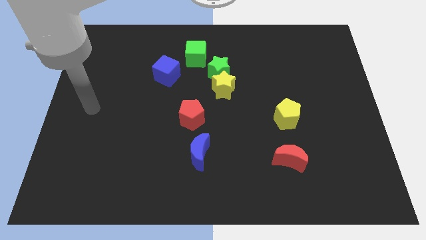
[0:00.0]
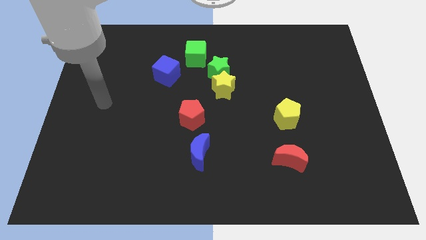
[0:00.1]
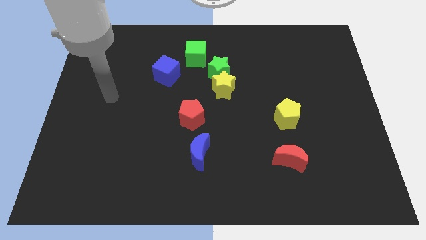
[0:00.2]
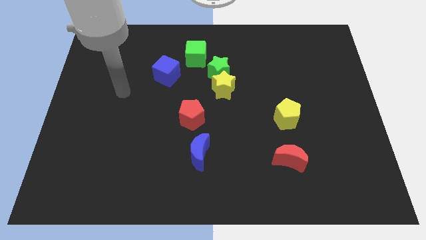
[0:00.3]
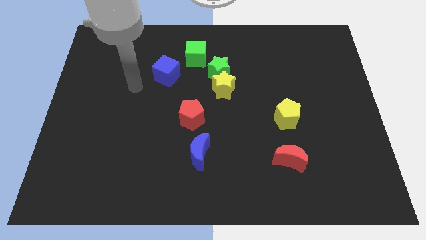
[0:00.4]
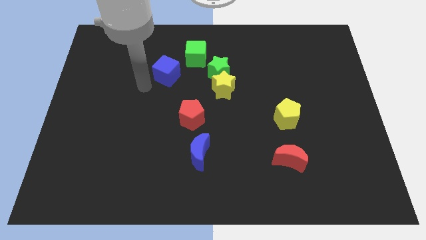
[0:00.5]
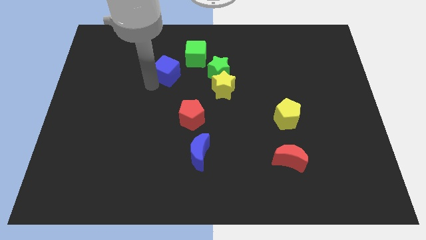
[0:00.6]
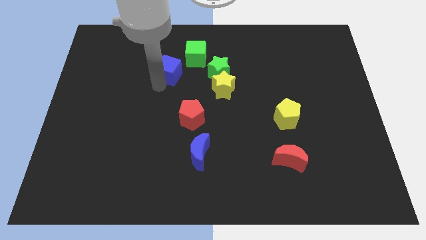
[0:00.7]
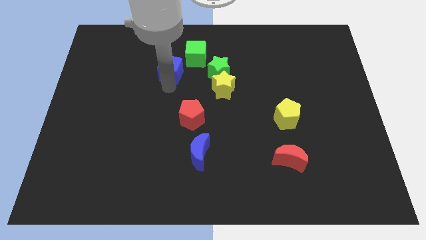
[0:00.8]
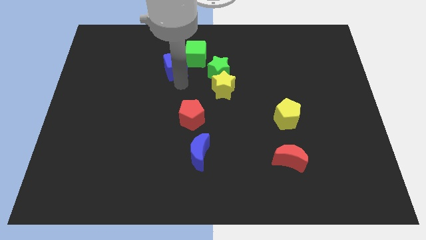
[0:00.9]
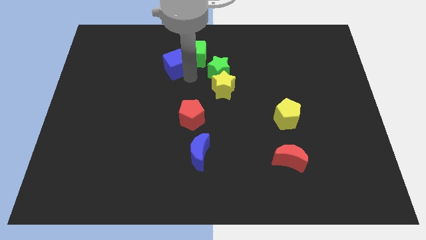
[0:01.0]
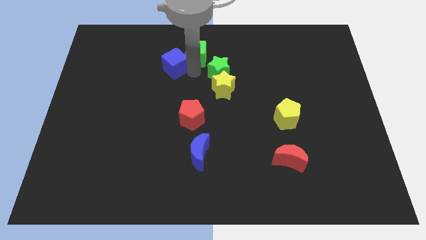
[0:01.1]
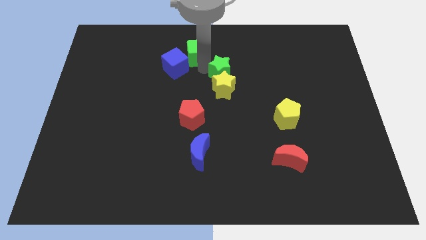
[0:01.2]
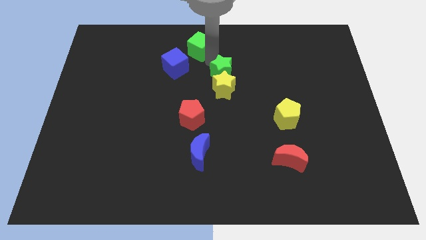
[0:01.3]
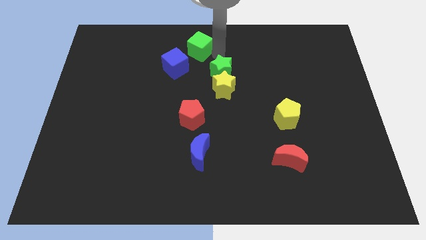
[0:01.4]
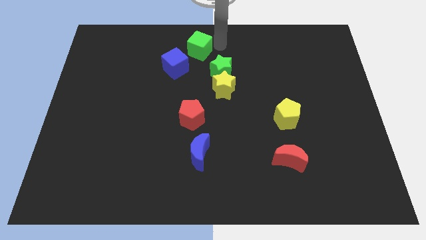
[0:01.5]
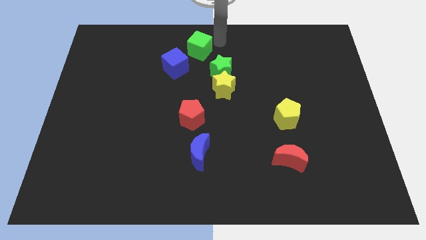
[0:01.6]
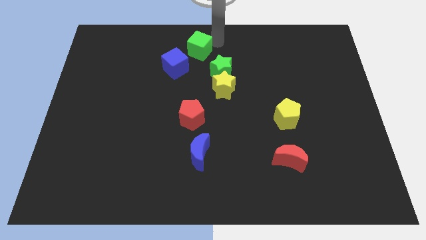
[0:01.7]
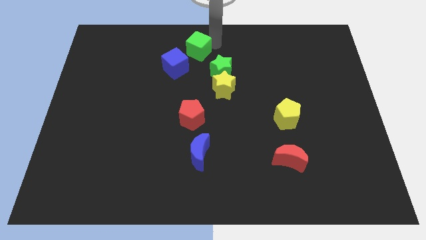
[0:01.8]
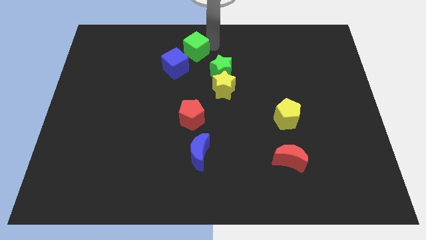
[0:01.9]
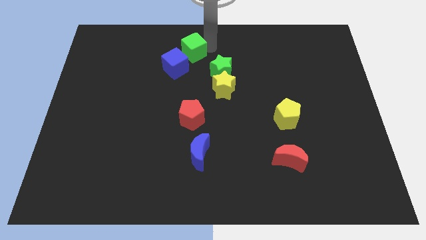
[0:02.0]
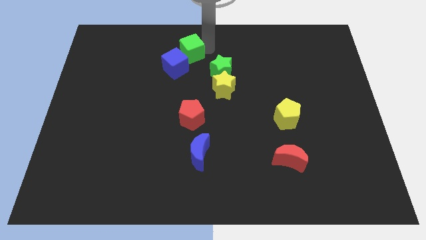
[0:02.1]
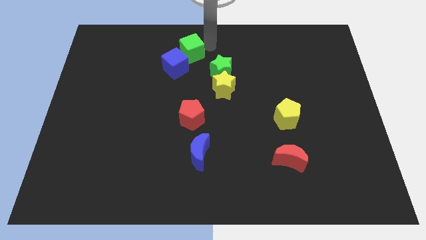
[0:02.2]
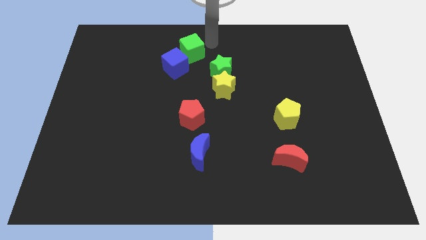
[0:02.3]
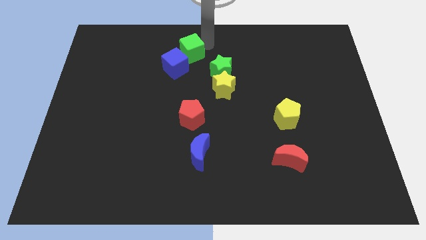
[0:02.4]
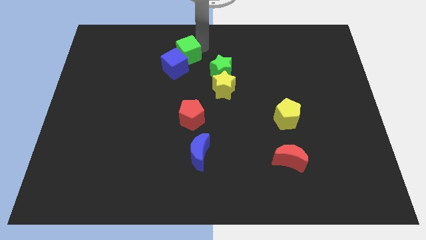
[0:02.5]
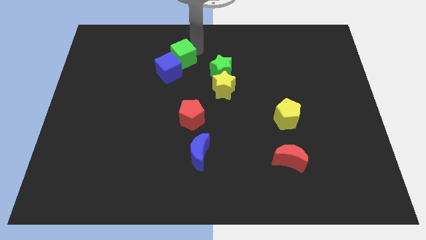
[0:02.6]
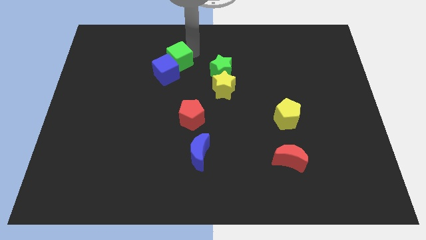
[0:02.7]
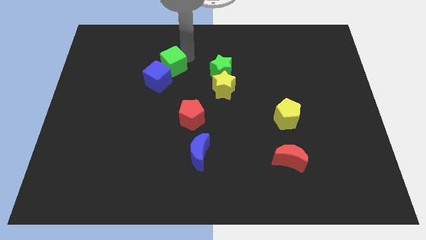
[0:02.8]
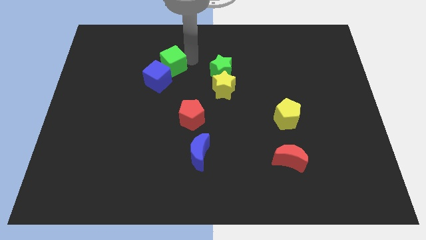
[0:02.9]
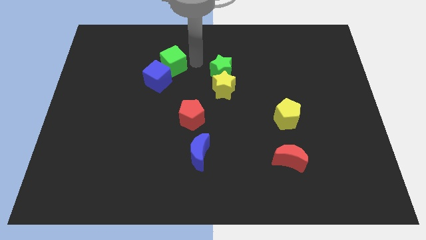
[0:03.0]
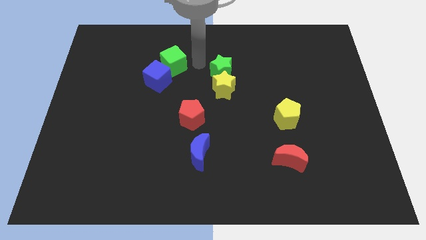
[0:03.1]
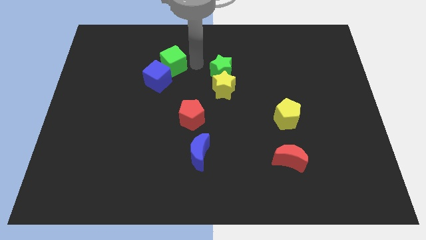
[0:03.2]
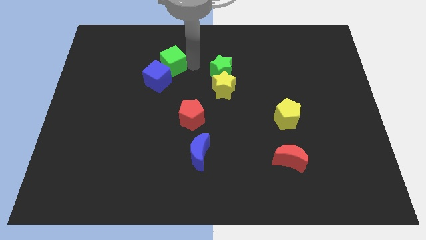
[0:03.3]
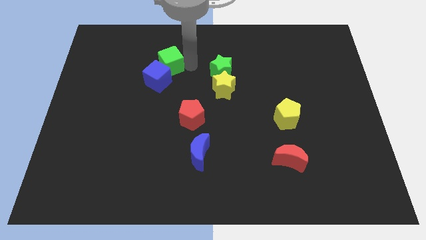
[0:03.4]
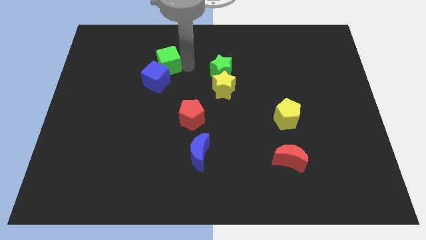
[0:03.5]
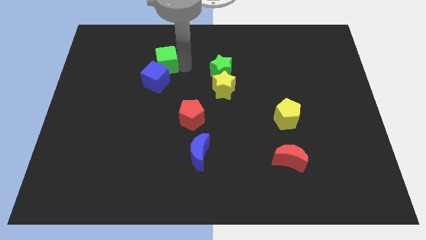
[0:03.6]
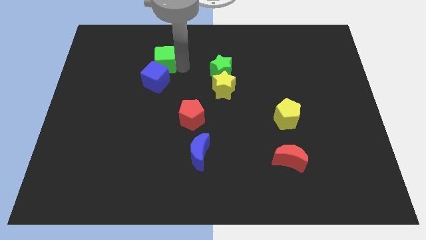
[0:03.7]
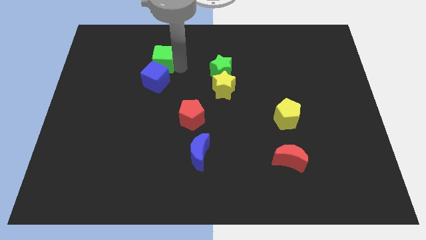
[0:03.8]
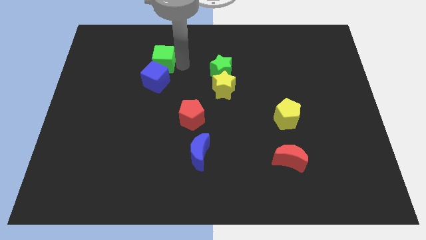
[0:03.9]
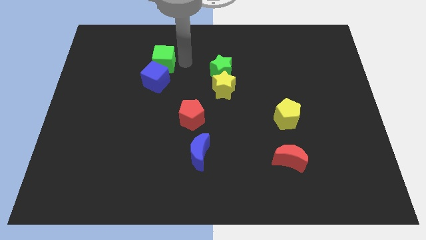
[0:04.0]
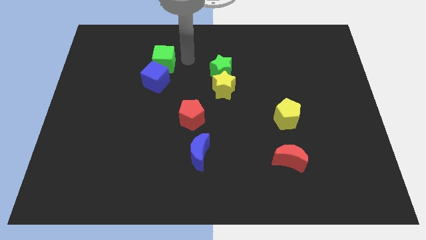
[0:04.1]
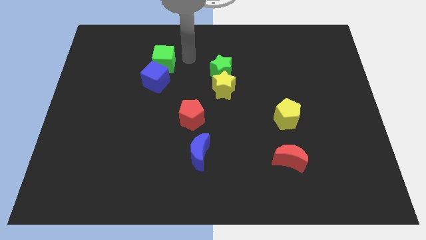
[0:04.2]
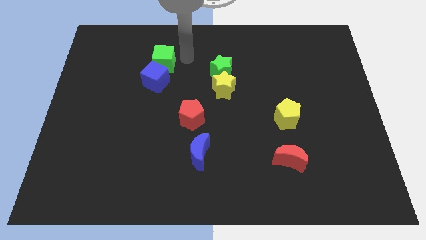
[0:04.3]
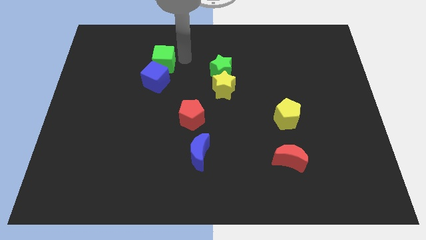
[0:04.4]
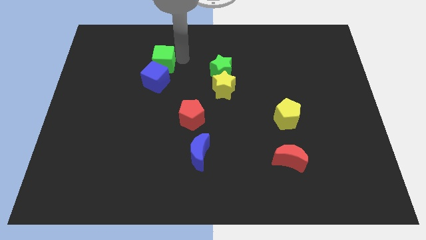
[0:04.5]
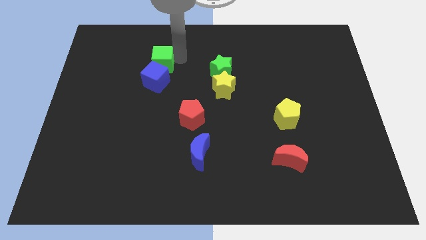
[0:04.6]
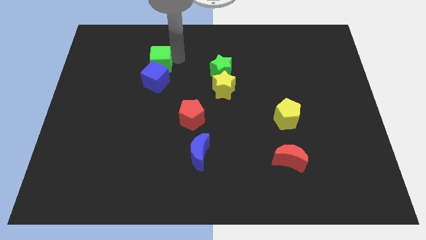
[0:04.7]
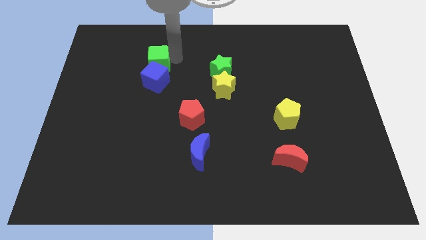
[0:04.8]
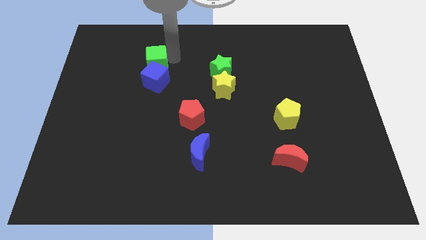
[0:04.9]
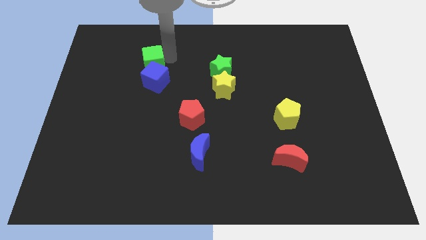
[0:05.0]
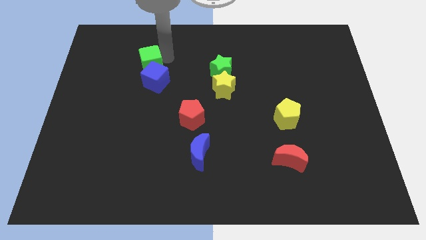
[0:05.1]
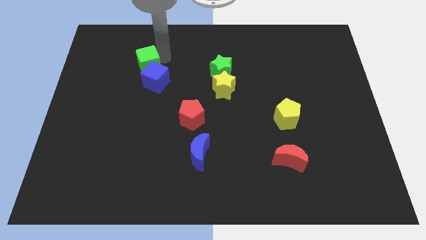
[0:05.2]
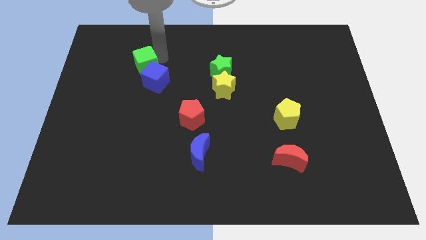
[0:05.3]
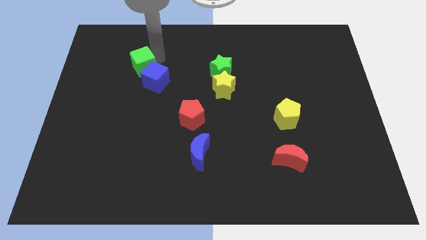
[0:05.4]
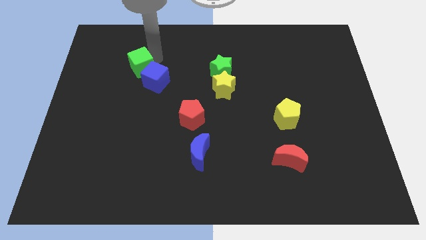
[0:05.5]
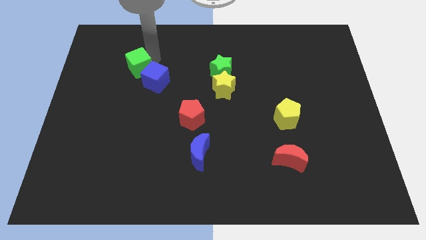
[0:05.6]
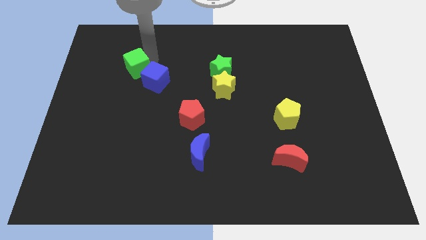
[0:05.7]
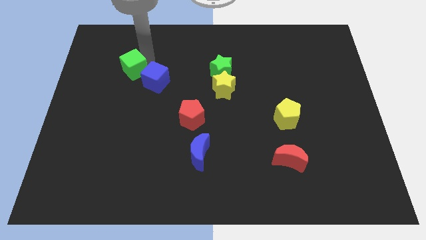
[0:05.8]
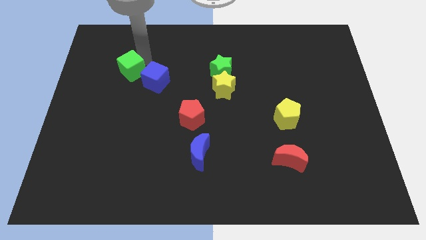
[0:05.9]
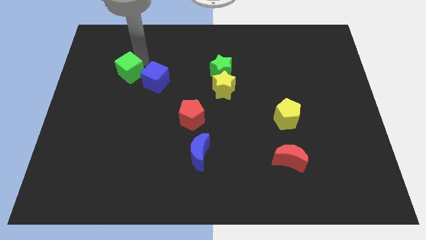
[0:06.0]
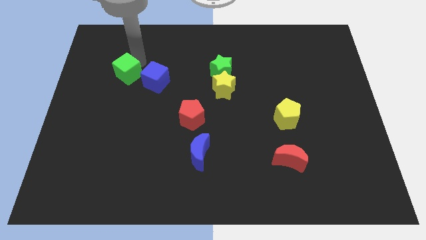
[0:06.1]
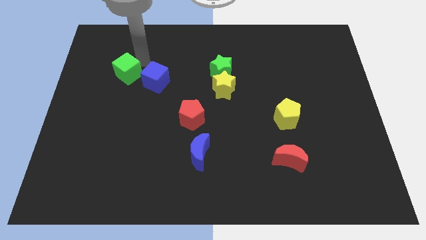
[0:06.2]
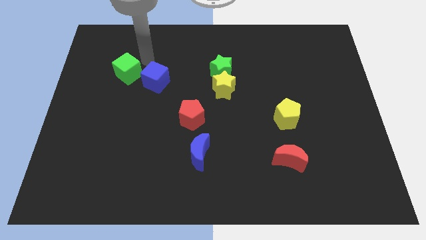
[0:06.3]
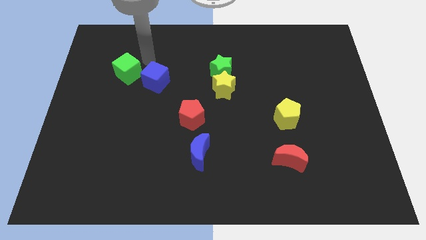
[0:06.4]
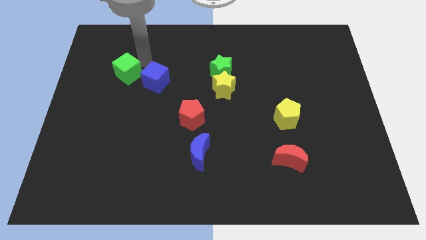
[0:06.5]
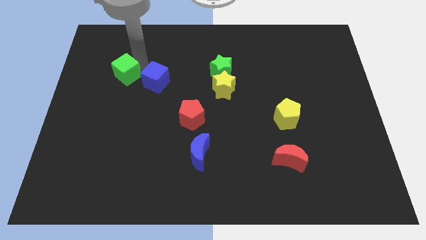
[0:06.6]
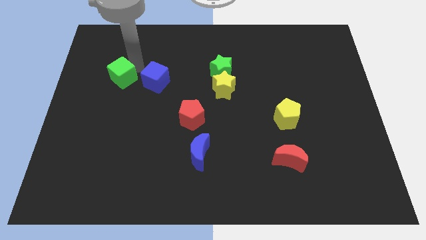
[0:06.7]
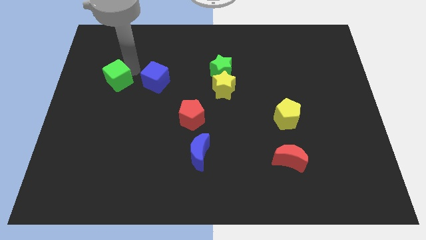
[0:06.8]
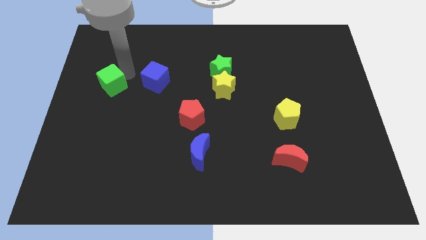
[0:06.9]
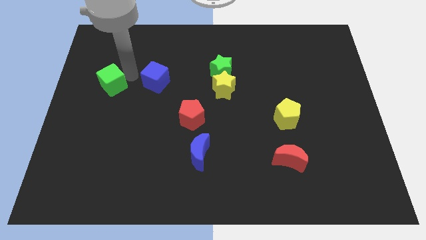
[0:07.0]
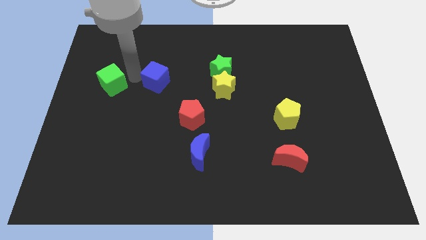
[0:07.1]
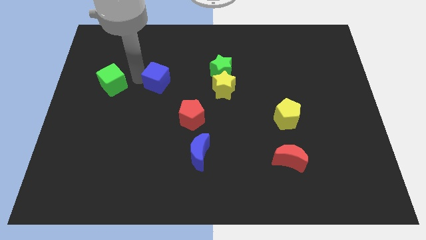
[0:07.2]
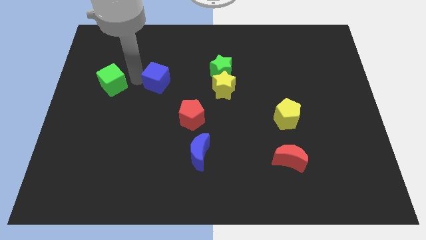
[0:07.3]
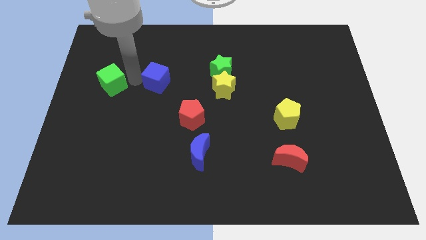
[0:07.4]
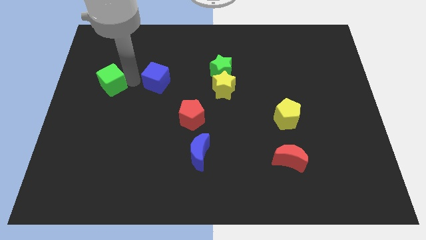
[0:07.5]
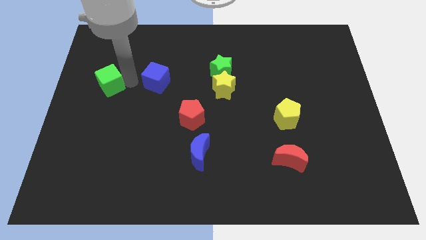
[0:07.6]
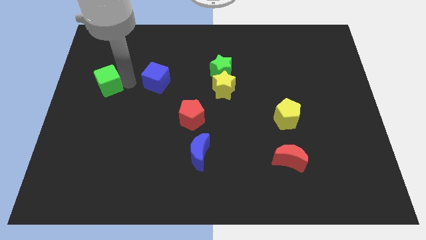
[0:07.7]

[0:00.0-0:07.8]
put the green cube to the center left
